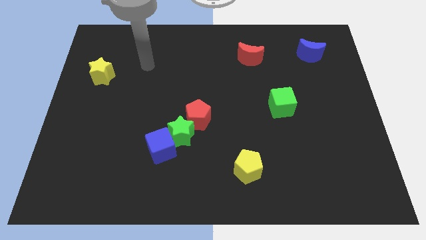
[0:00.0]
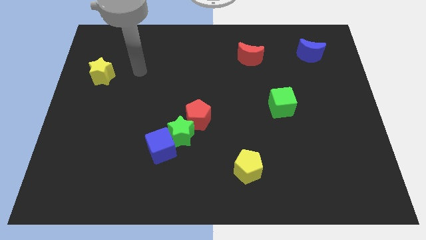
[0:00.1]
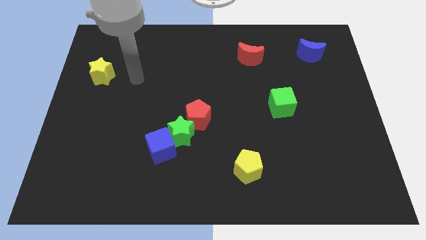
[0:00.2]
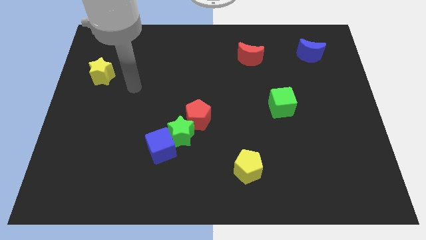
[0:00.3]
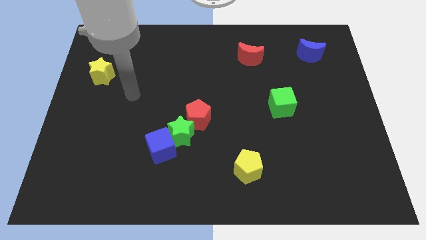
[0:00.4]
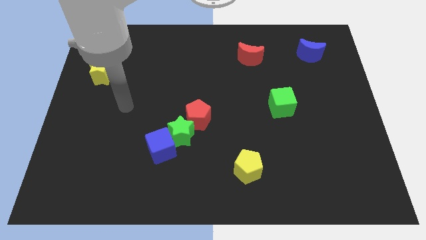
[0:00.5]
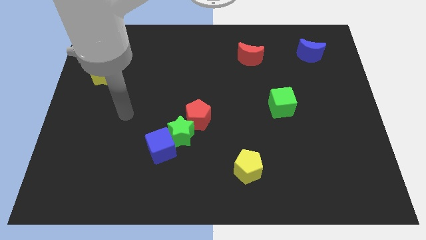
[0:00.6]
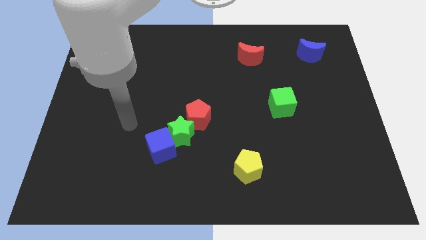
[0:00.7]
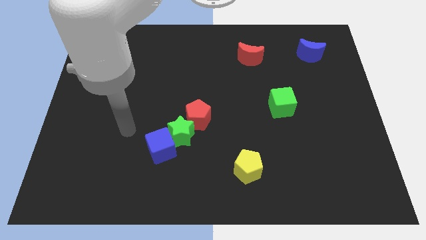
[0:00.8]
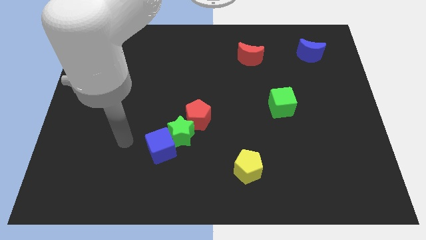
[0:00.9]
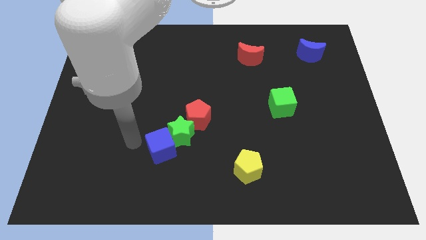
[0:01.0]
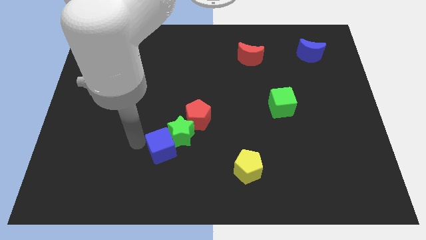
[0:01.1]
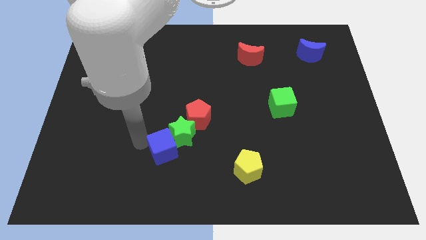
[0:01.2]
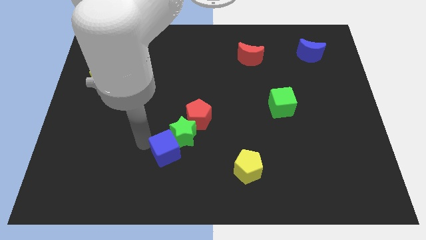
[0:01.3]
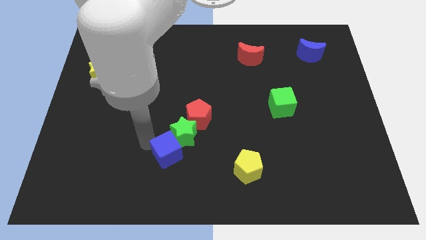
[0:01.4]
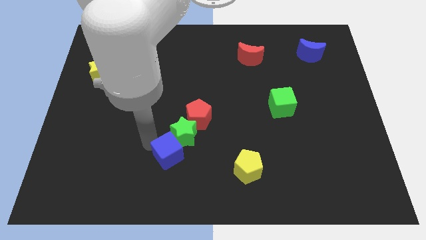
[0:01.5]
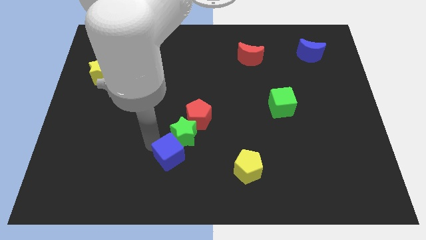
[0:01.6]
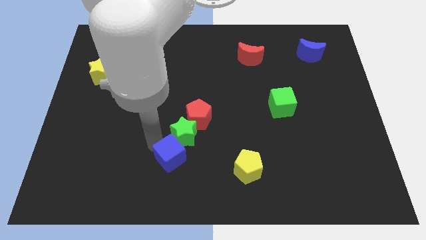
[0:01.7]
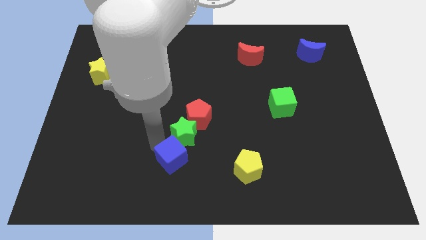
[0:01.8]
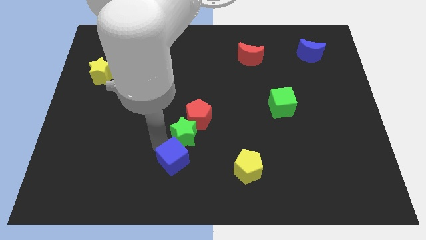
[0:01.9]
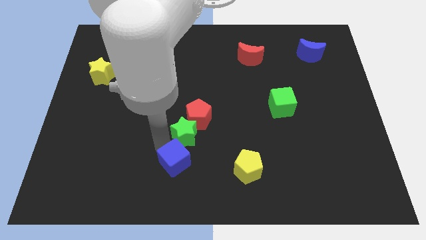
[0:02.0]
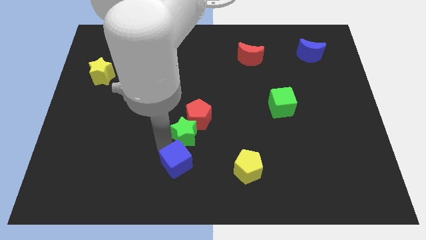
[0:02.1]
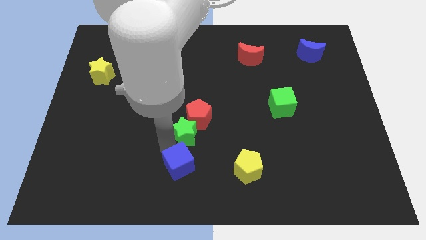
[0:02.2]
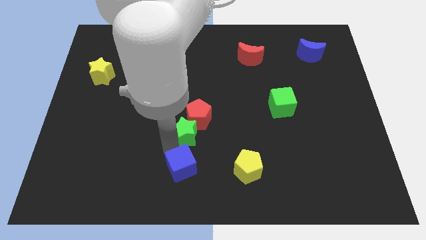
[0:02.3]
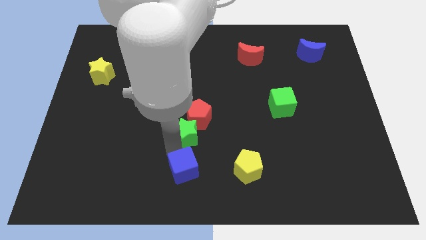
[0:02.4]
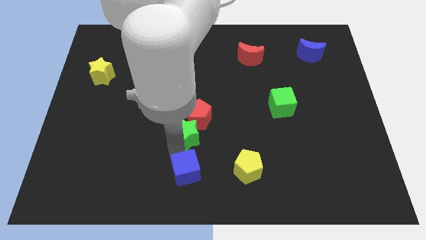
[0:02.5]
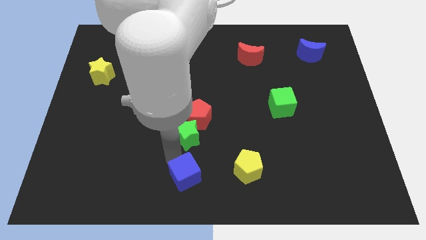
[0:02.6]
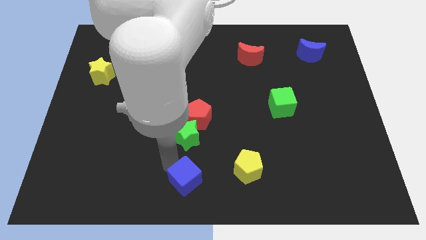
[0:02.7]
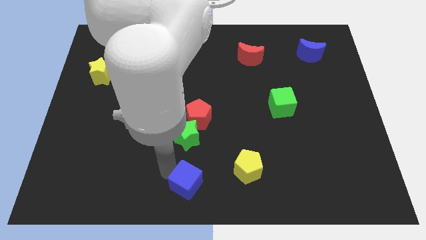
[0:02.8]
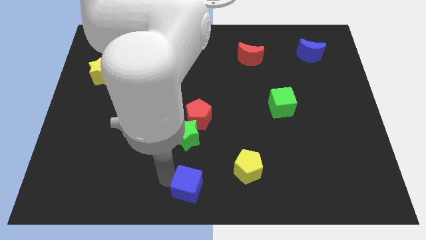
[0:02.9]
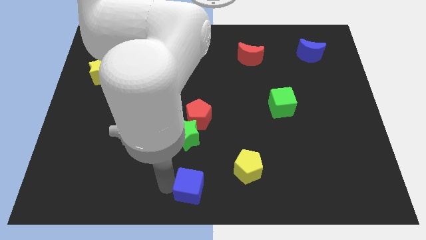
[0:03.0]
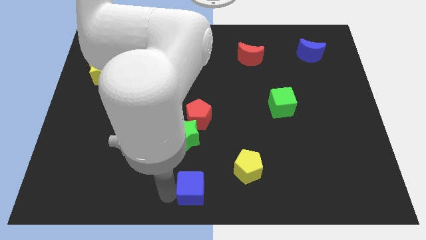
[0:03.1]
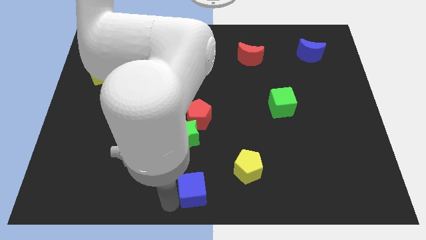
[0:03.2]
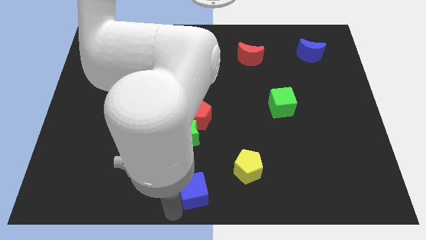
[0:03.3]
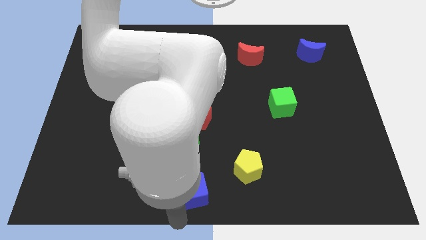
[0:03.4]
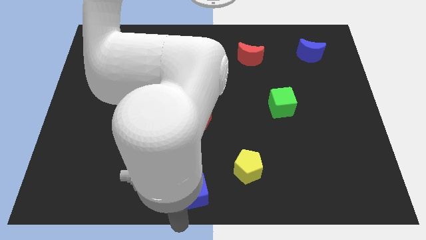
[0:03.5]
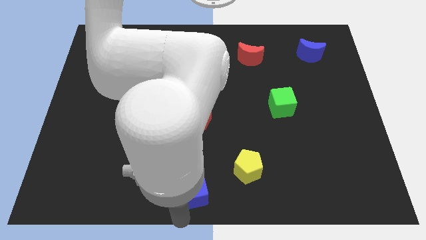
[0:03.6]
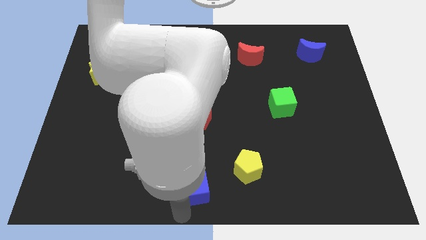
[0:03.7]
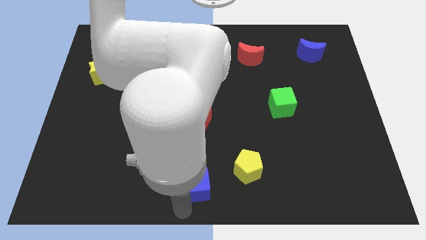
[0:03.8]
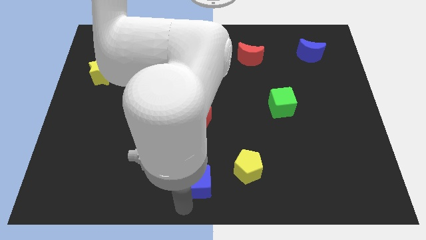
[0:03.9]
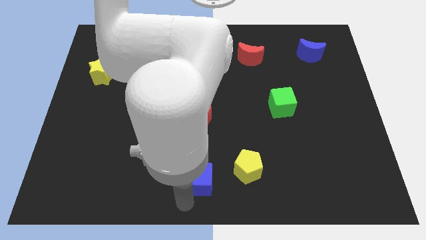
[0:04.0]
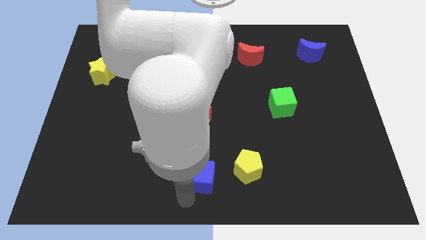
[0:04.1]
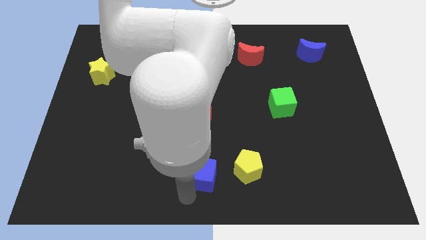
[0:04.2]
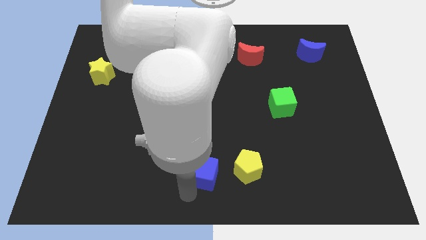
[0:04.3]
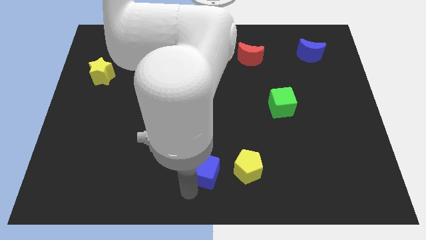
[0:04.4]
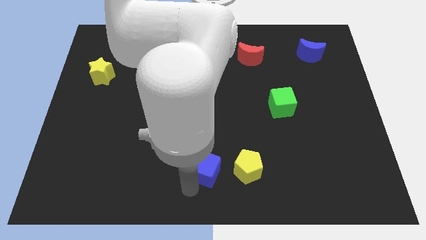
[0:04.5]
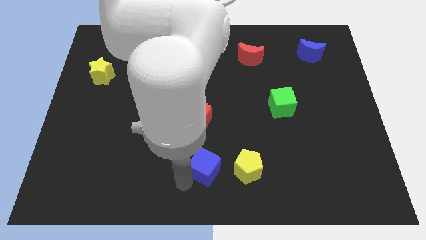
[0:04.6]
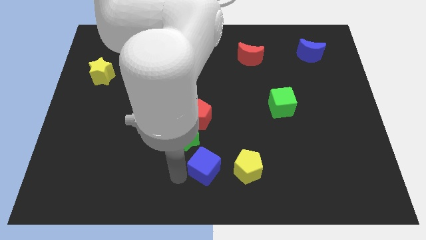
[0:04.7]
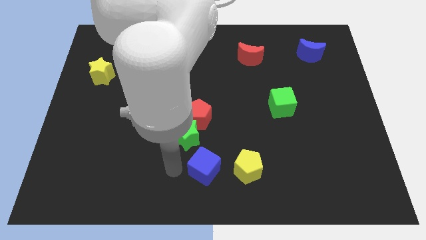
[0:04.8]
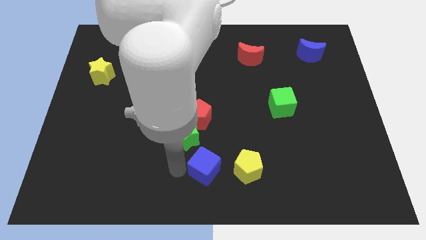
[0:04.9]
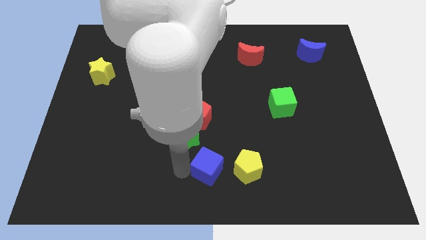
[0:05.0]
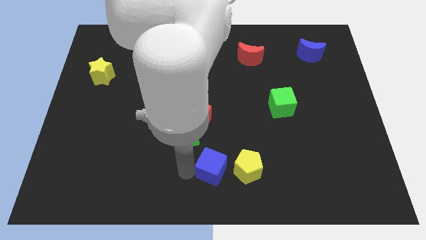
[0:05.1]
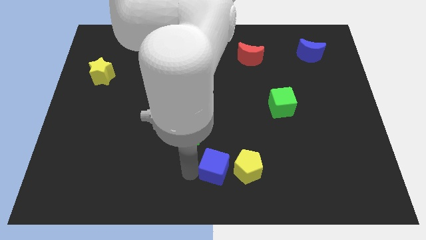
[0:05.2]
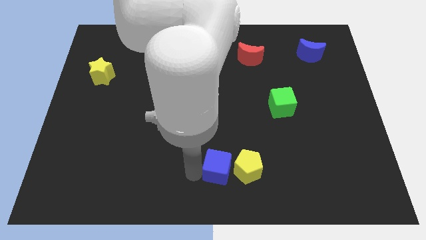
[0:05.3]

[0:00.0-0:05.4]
move the blue cube towards the yellow pentagon
